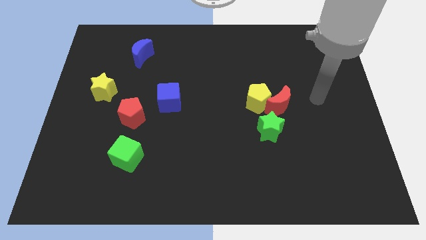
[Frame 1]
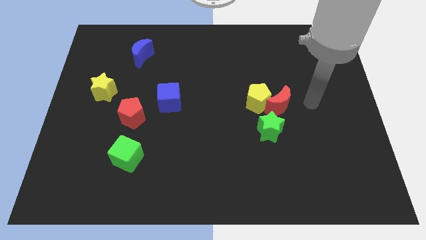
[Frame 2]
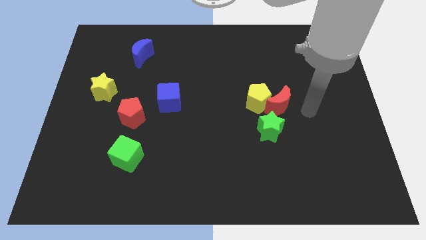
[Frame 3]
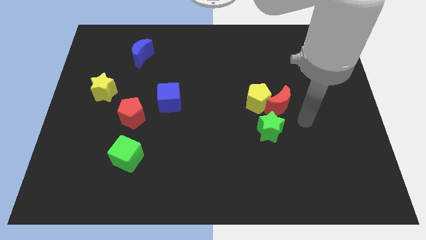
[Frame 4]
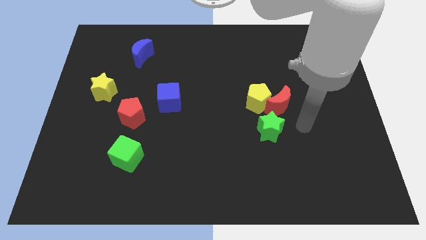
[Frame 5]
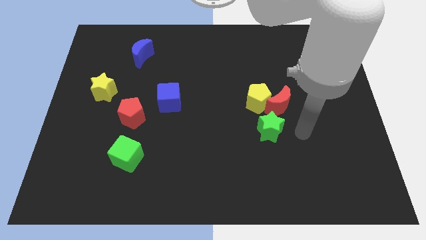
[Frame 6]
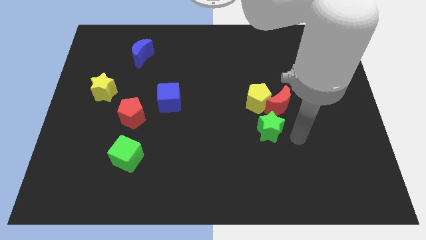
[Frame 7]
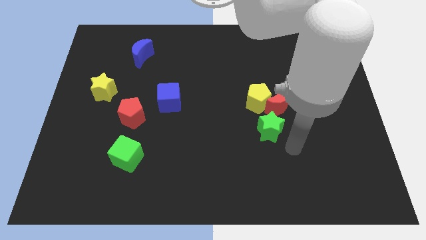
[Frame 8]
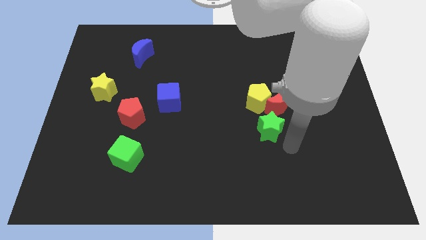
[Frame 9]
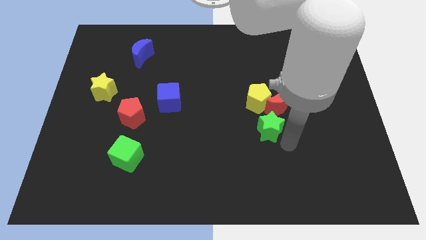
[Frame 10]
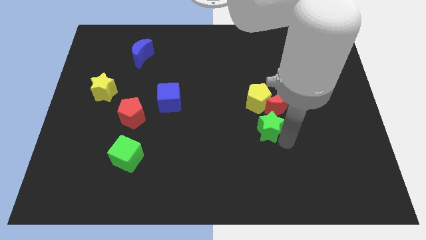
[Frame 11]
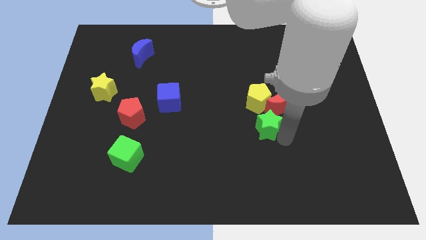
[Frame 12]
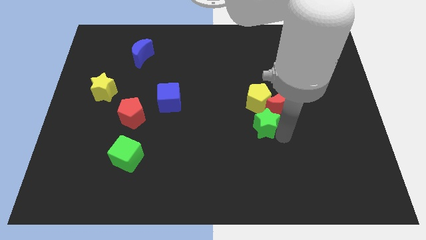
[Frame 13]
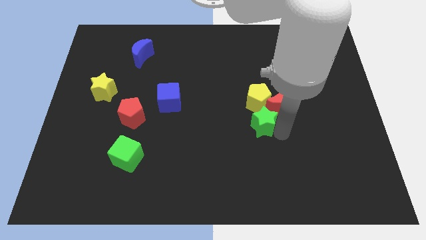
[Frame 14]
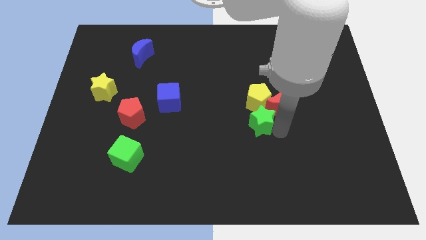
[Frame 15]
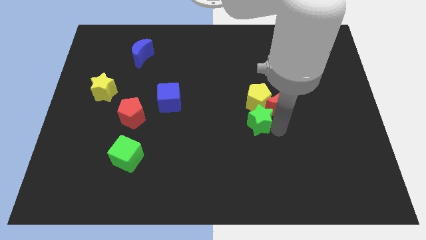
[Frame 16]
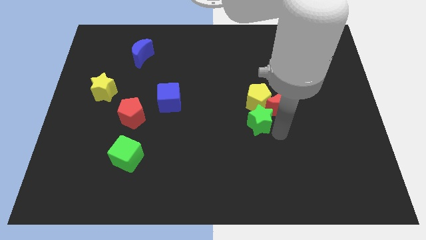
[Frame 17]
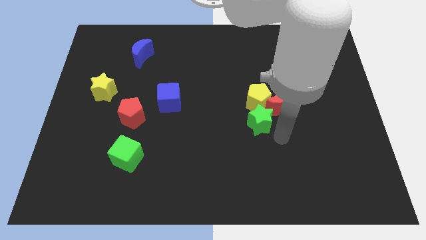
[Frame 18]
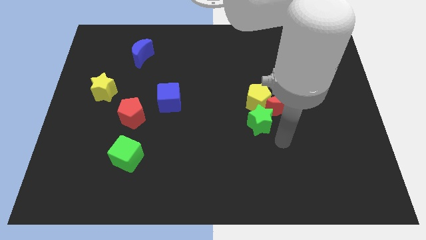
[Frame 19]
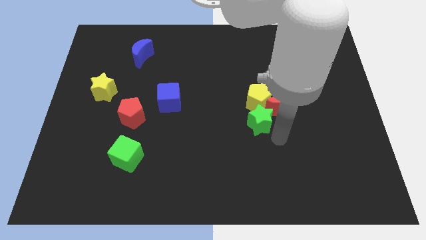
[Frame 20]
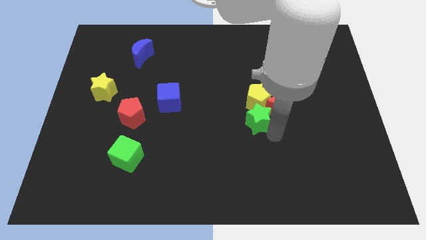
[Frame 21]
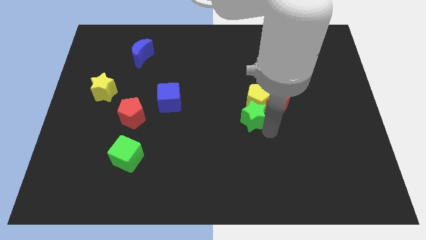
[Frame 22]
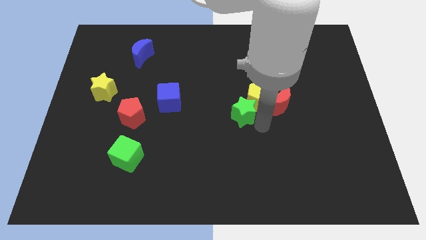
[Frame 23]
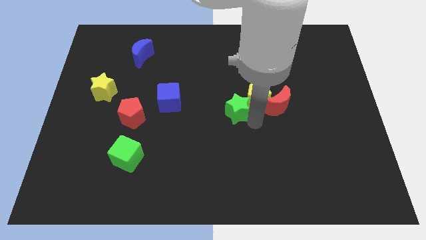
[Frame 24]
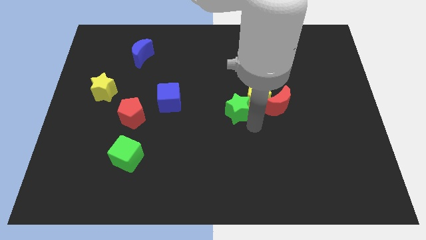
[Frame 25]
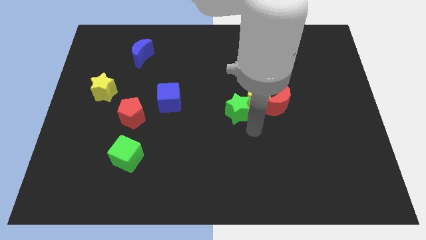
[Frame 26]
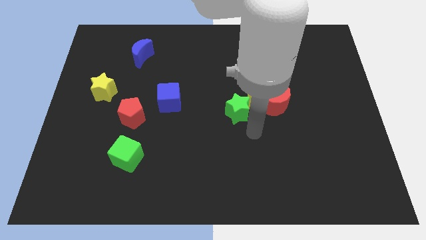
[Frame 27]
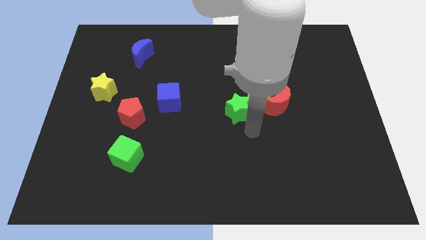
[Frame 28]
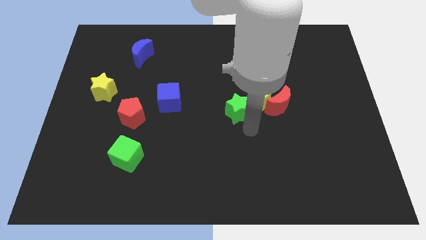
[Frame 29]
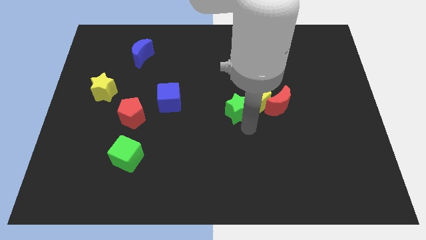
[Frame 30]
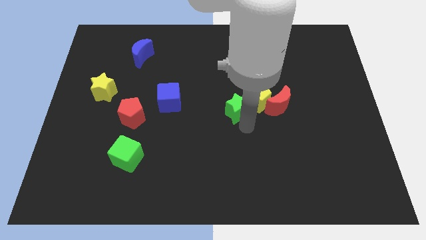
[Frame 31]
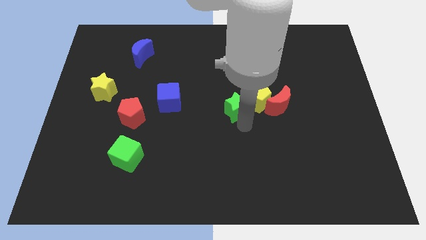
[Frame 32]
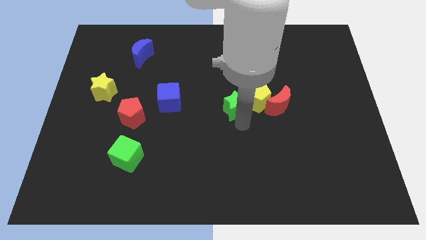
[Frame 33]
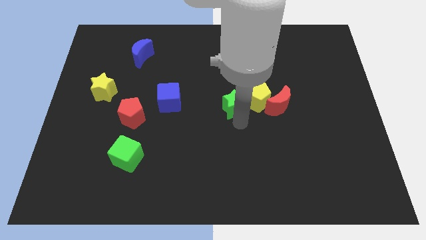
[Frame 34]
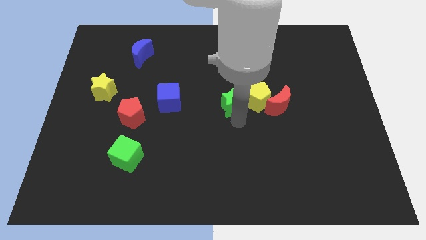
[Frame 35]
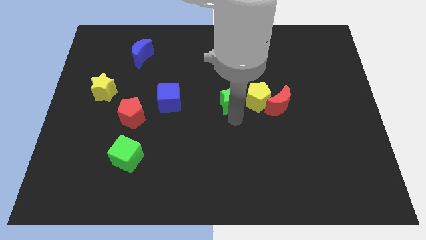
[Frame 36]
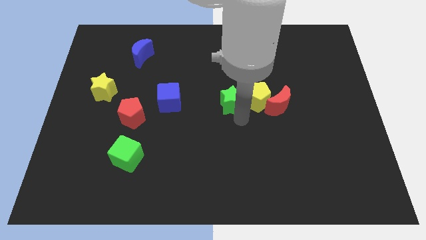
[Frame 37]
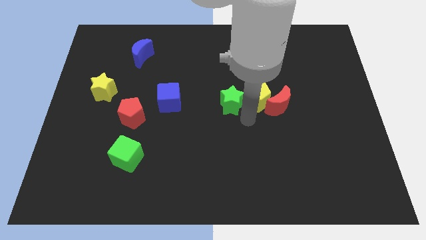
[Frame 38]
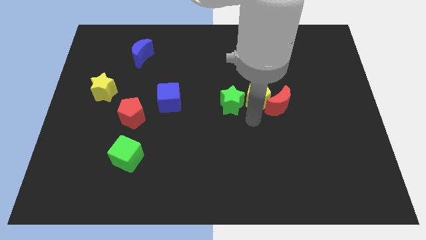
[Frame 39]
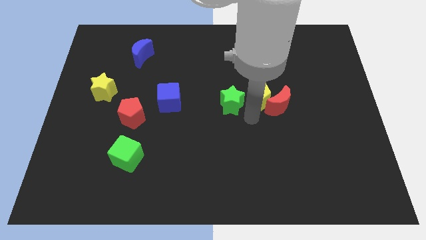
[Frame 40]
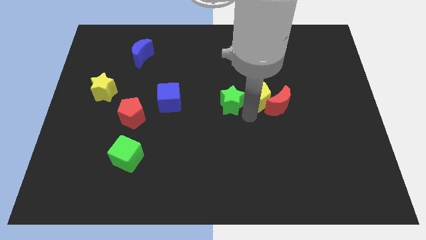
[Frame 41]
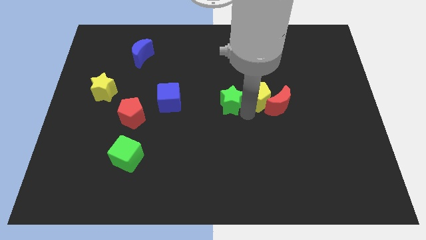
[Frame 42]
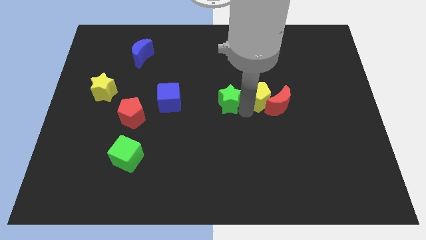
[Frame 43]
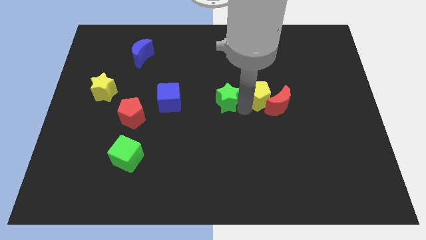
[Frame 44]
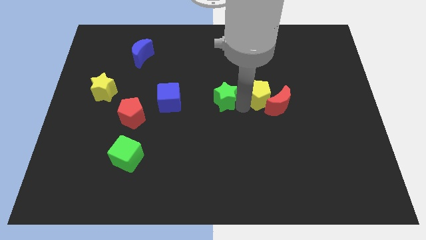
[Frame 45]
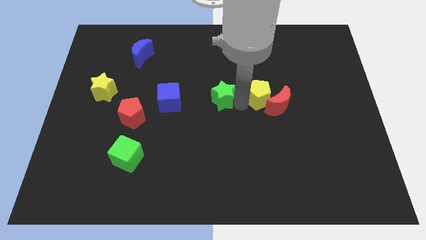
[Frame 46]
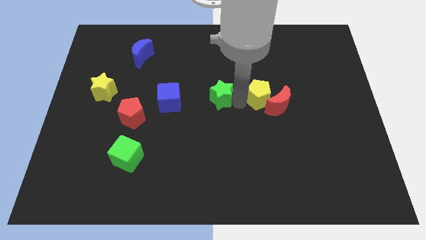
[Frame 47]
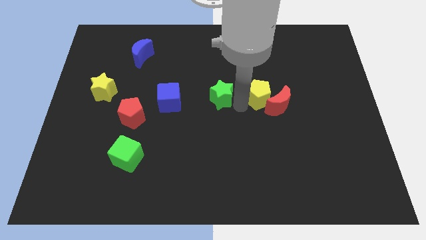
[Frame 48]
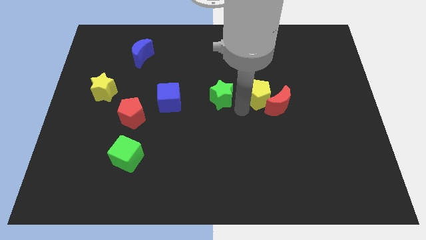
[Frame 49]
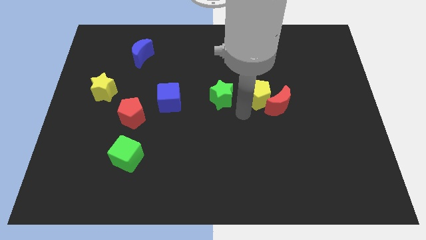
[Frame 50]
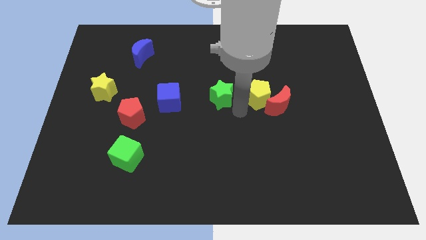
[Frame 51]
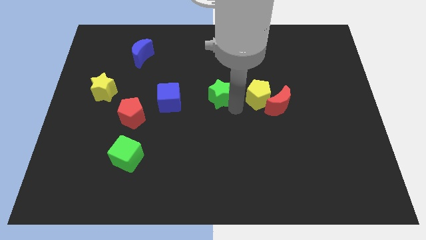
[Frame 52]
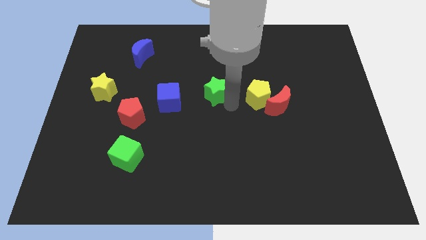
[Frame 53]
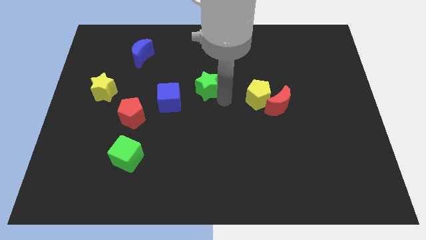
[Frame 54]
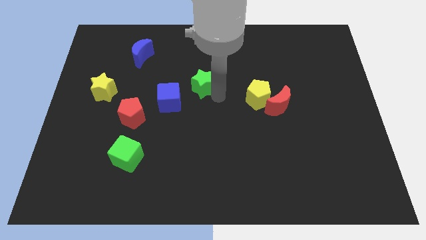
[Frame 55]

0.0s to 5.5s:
slide the green star upwards and to the left

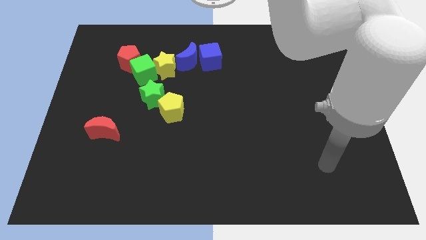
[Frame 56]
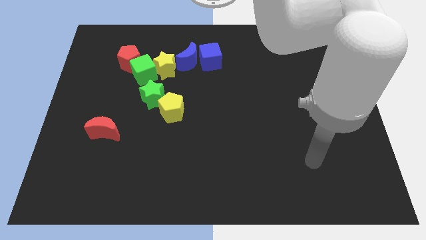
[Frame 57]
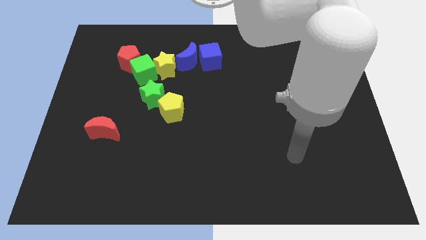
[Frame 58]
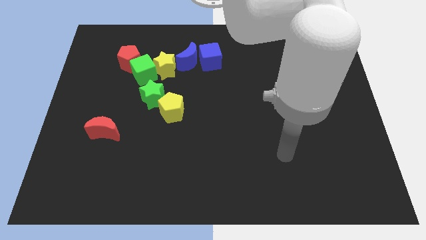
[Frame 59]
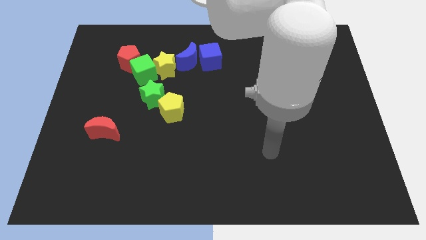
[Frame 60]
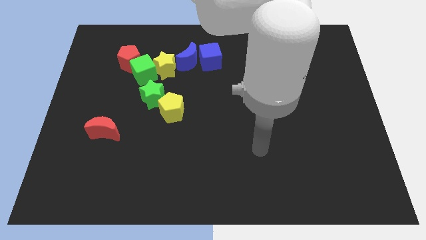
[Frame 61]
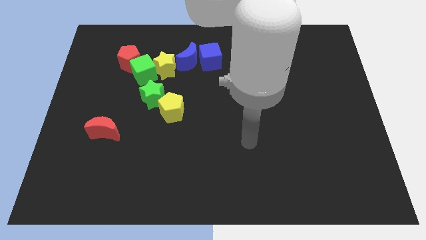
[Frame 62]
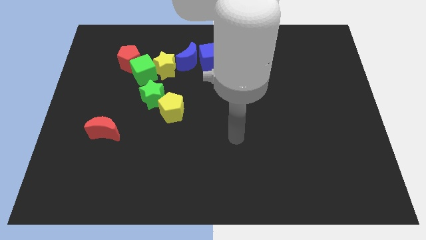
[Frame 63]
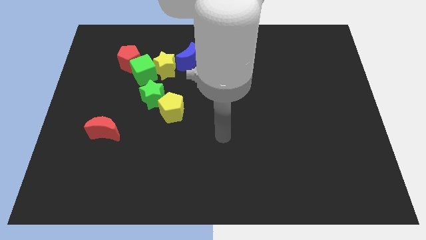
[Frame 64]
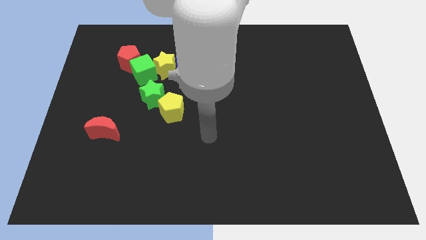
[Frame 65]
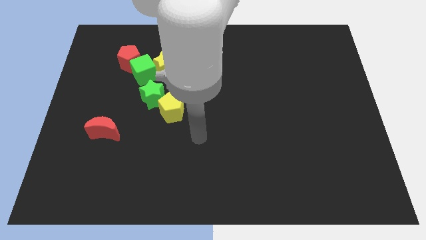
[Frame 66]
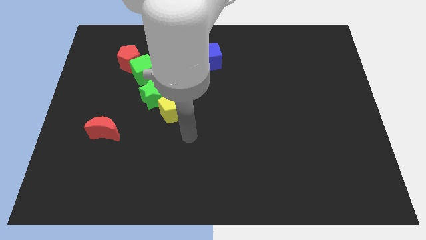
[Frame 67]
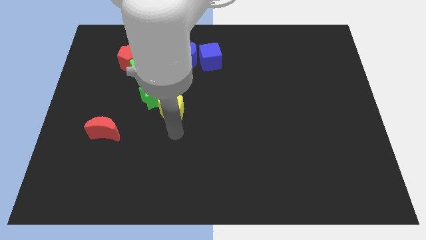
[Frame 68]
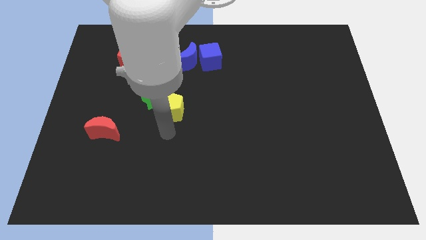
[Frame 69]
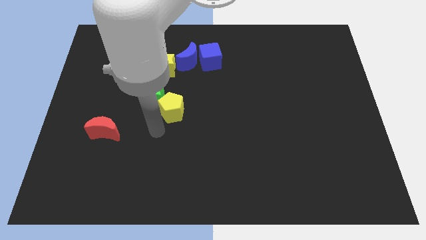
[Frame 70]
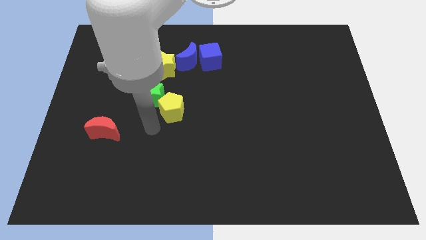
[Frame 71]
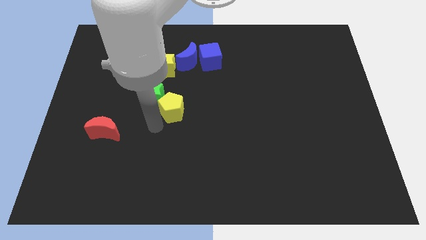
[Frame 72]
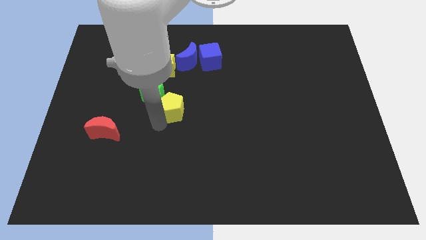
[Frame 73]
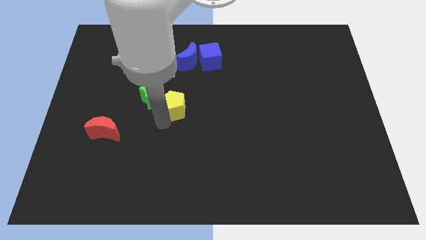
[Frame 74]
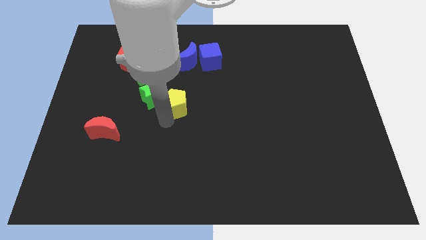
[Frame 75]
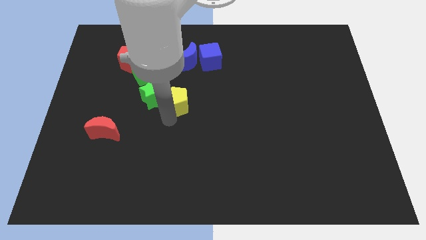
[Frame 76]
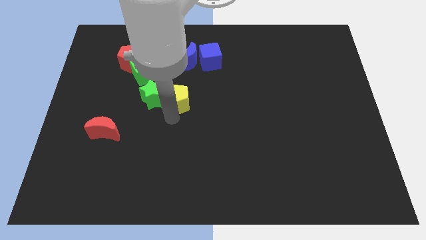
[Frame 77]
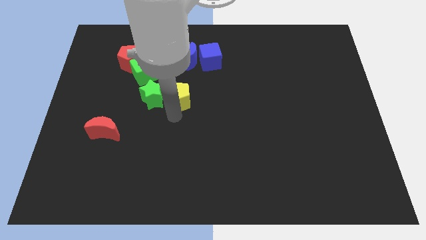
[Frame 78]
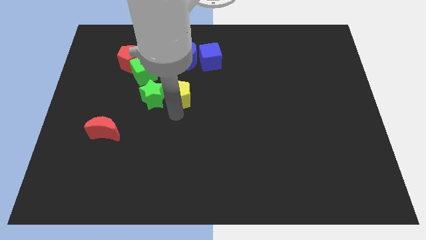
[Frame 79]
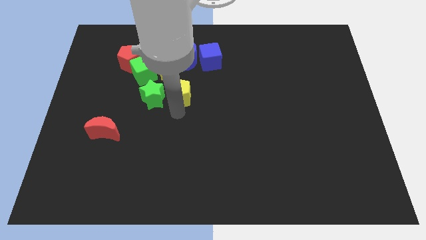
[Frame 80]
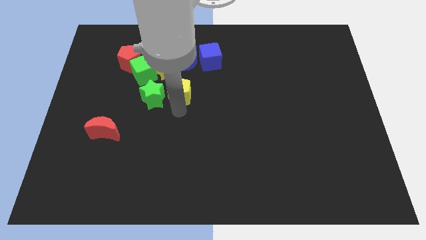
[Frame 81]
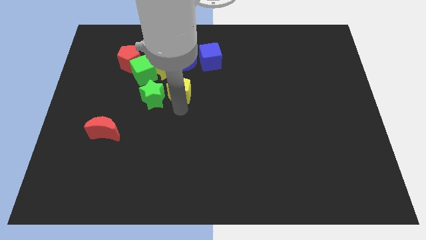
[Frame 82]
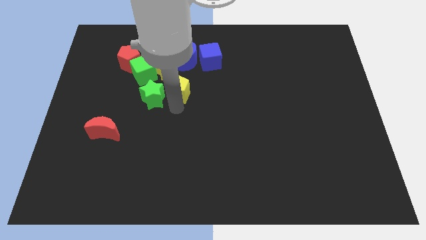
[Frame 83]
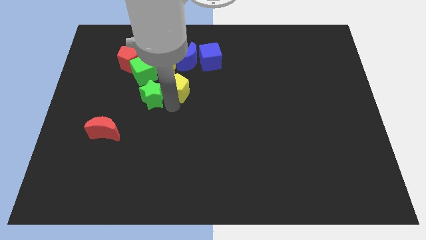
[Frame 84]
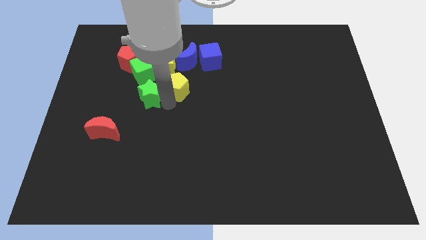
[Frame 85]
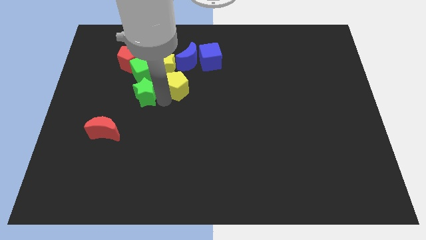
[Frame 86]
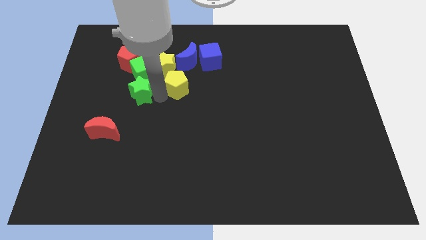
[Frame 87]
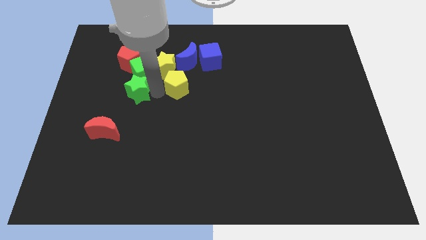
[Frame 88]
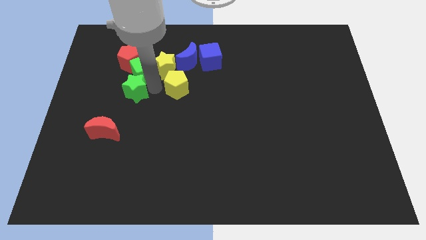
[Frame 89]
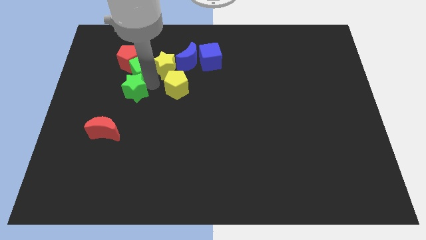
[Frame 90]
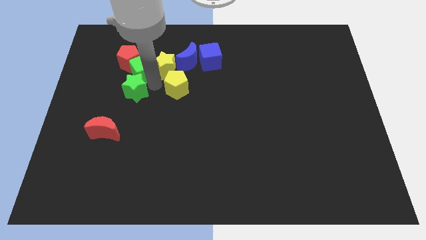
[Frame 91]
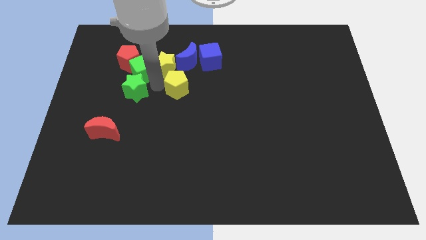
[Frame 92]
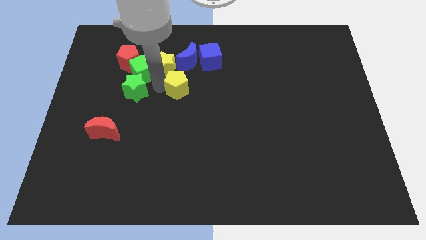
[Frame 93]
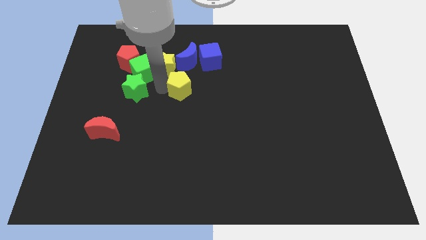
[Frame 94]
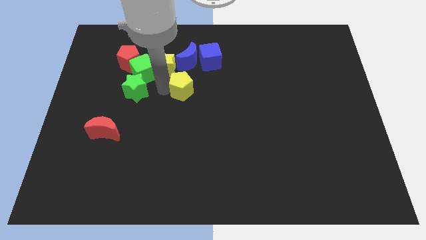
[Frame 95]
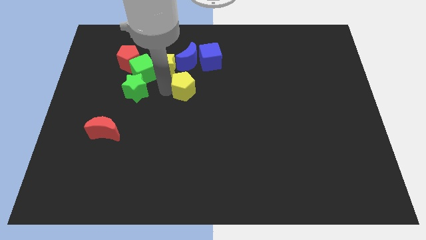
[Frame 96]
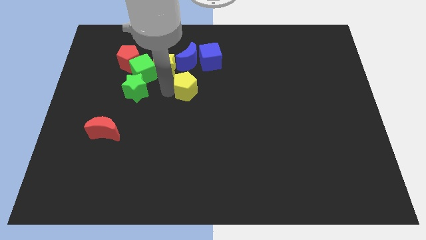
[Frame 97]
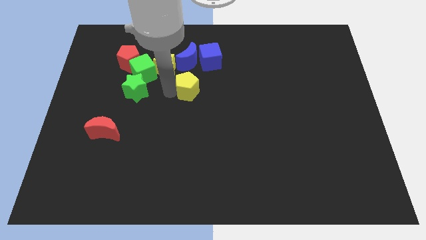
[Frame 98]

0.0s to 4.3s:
slide the yellow pentagon diagonally up and to the right a little
